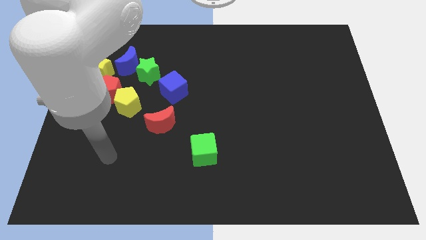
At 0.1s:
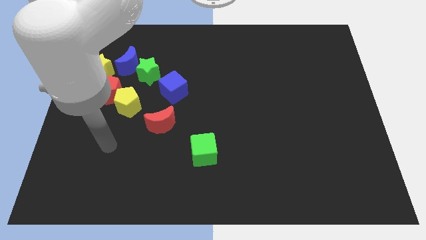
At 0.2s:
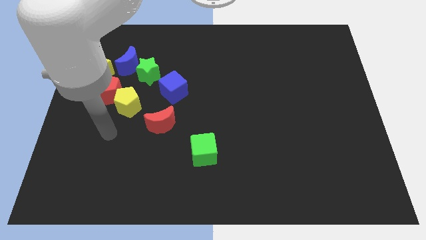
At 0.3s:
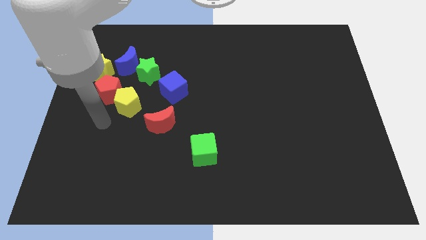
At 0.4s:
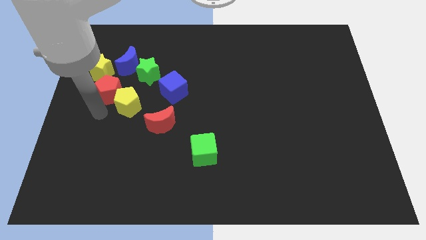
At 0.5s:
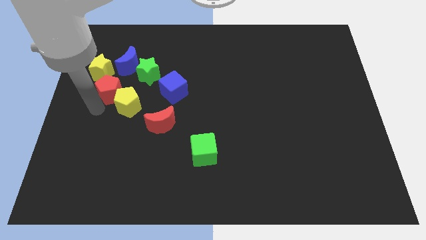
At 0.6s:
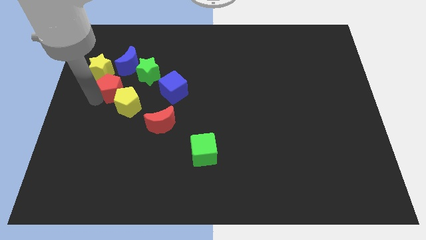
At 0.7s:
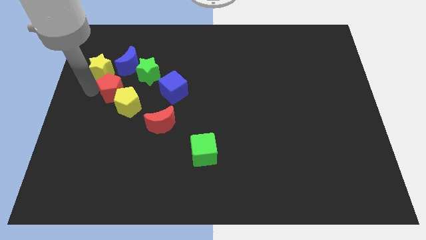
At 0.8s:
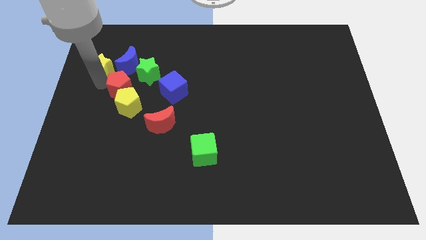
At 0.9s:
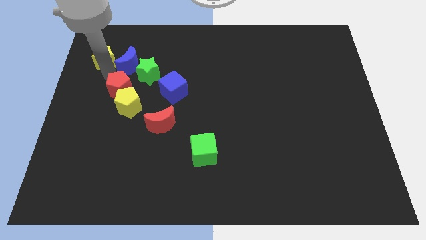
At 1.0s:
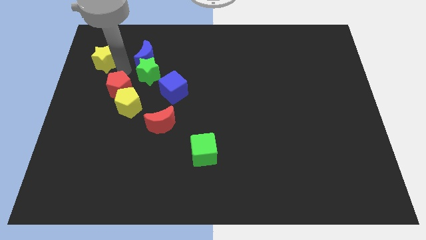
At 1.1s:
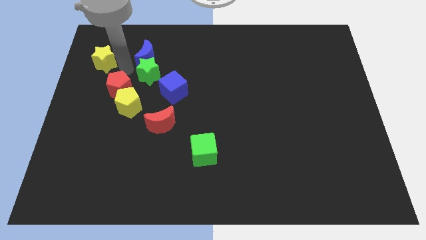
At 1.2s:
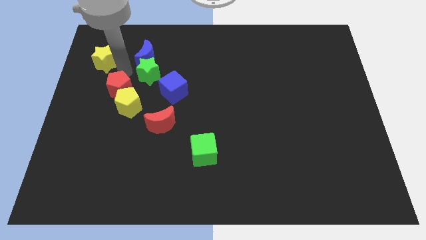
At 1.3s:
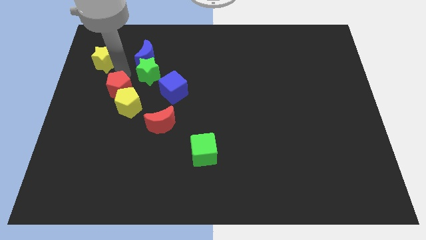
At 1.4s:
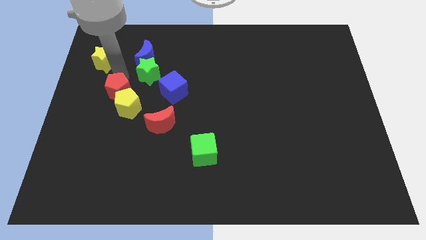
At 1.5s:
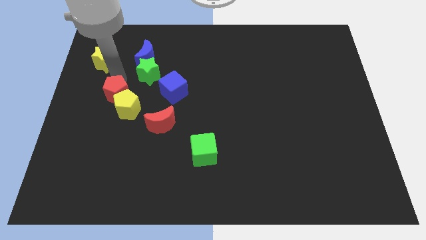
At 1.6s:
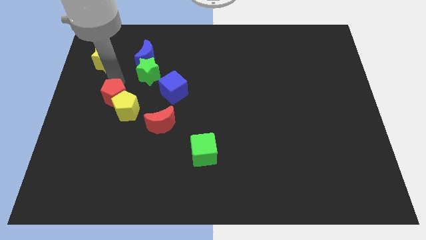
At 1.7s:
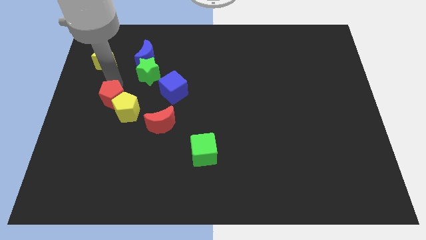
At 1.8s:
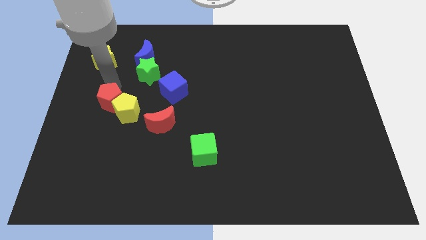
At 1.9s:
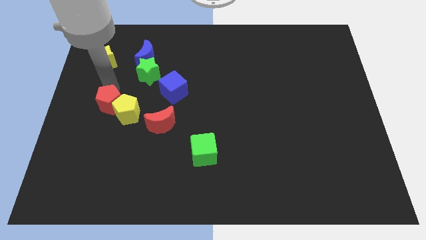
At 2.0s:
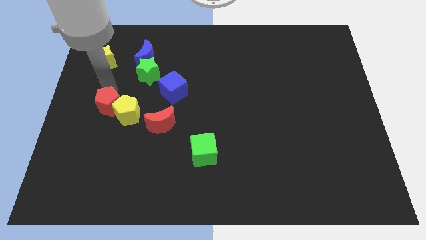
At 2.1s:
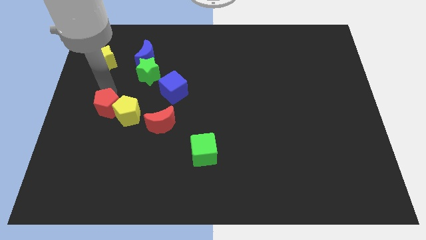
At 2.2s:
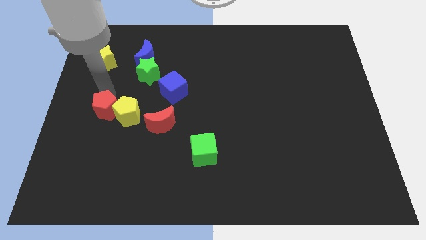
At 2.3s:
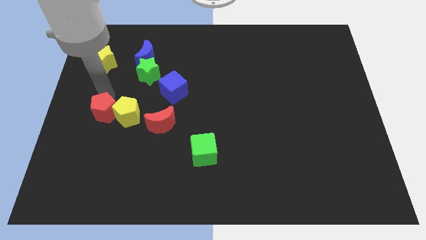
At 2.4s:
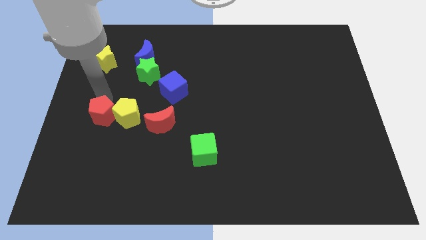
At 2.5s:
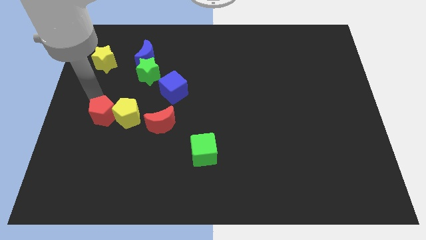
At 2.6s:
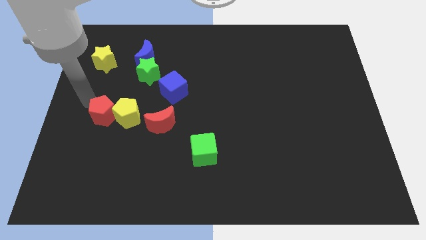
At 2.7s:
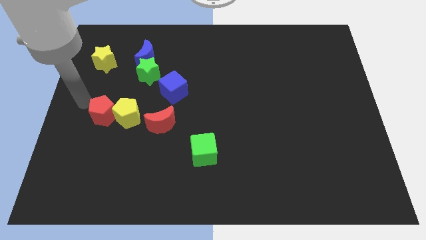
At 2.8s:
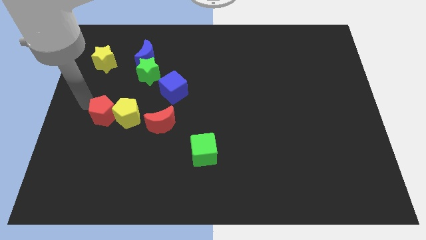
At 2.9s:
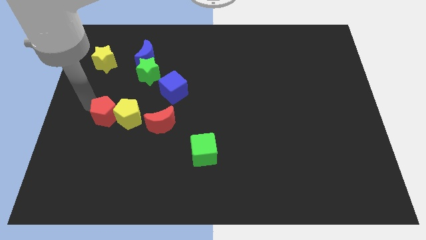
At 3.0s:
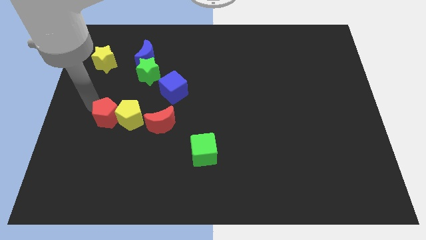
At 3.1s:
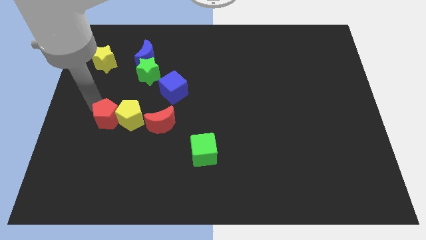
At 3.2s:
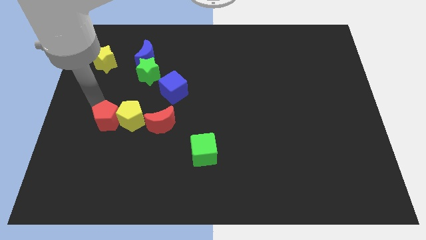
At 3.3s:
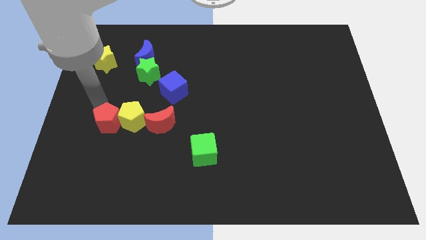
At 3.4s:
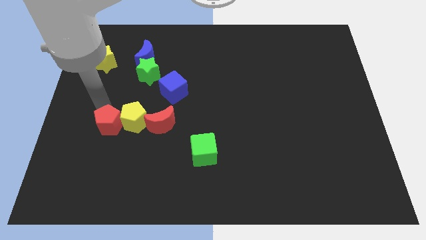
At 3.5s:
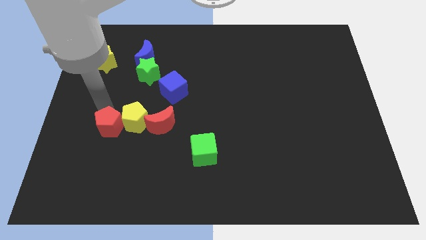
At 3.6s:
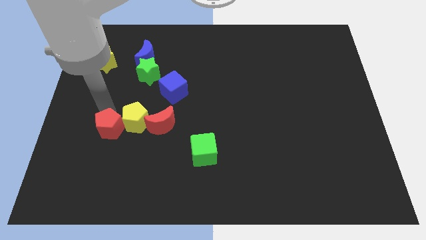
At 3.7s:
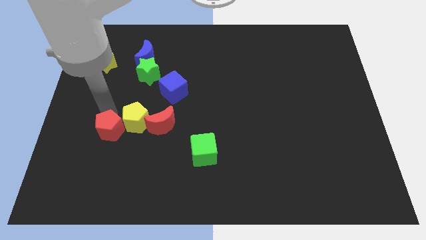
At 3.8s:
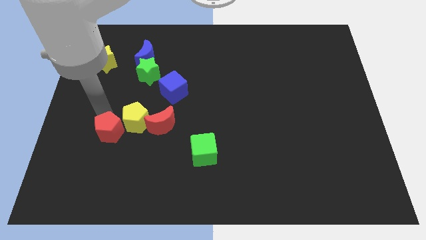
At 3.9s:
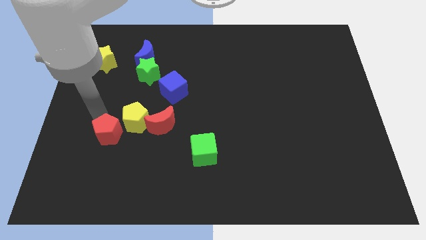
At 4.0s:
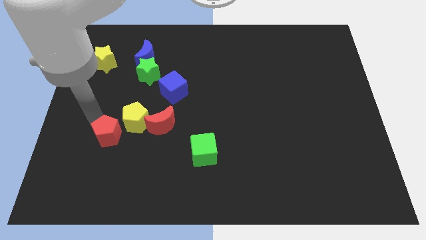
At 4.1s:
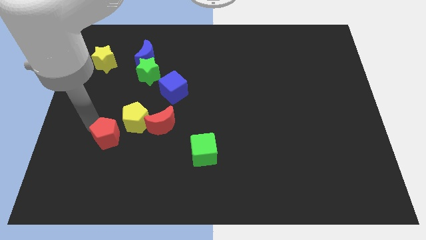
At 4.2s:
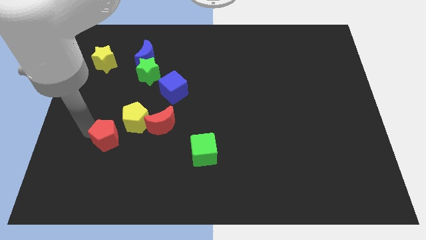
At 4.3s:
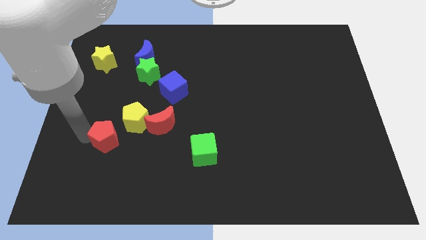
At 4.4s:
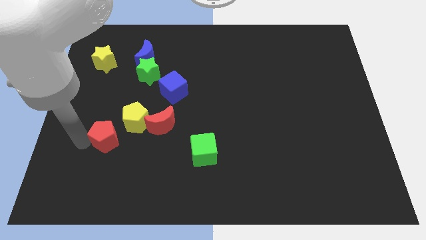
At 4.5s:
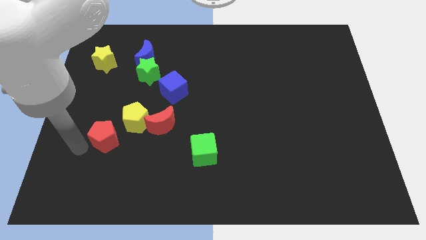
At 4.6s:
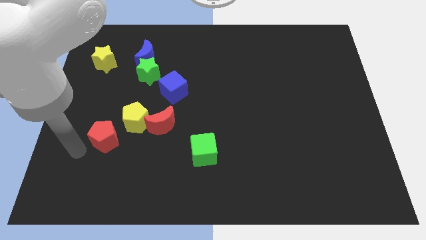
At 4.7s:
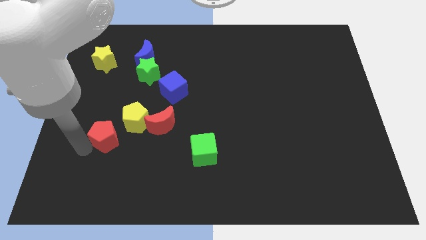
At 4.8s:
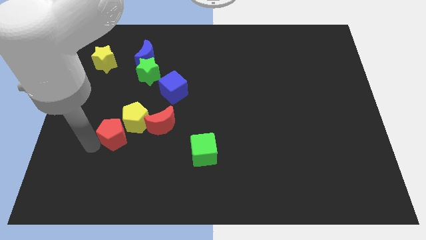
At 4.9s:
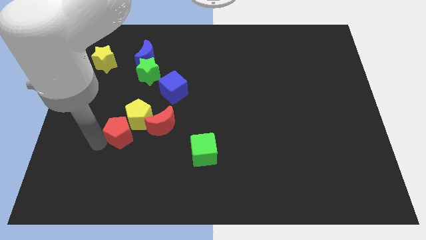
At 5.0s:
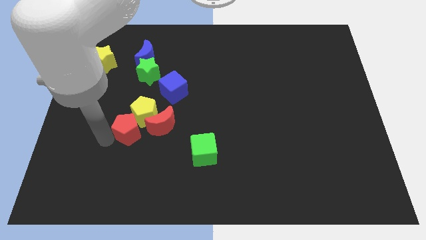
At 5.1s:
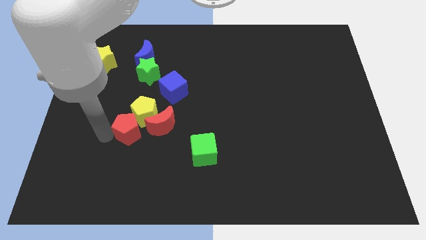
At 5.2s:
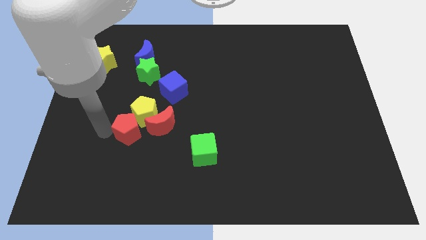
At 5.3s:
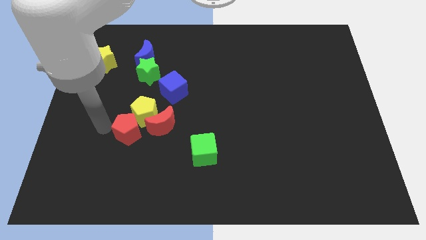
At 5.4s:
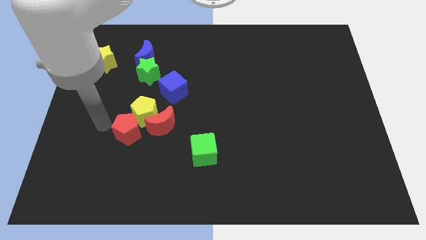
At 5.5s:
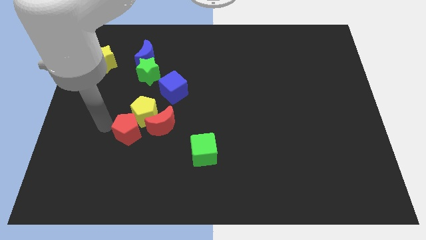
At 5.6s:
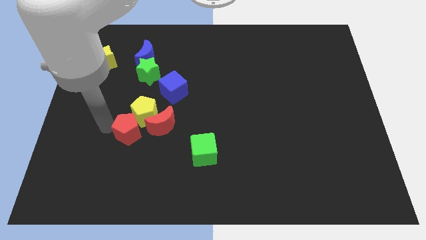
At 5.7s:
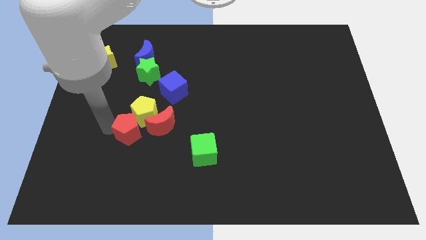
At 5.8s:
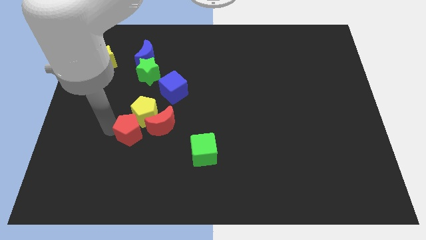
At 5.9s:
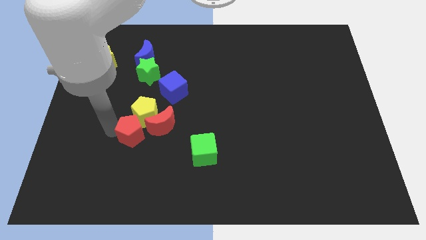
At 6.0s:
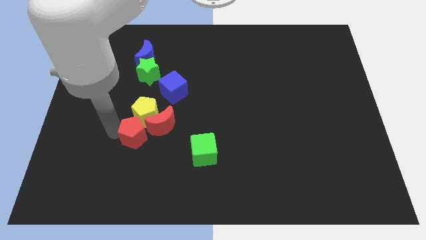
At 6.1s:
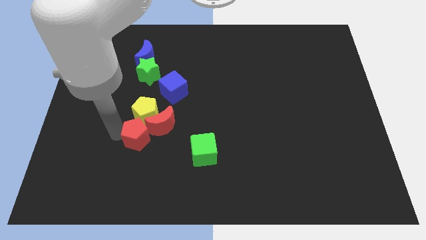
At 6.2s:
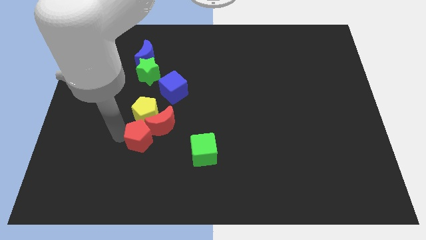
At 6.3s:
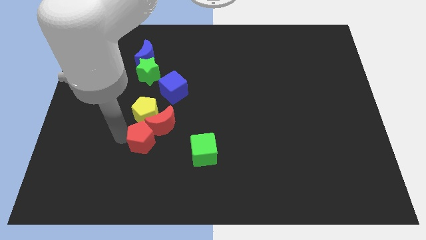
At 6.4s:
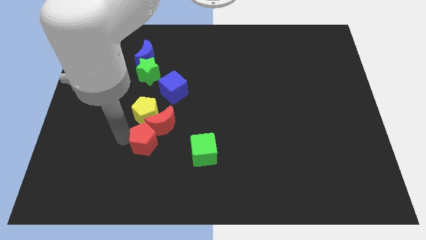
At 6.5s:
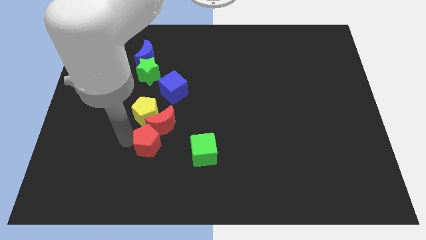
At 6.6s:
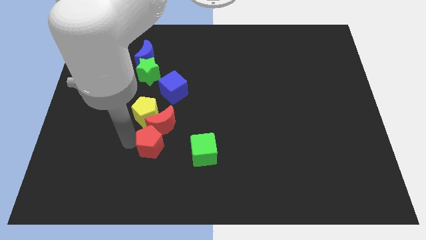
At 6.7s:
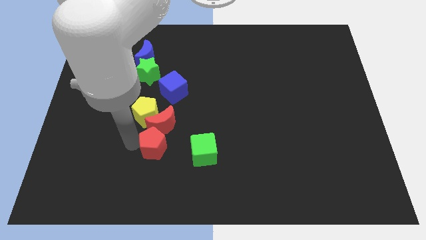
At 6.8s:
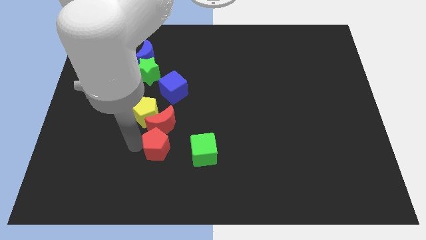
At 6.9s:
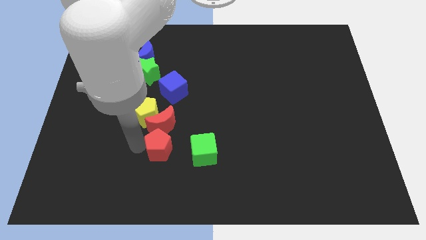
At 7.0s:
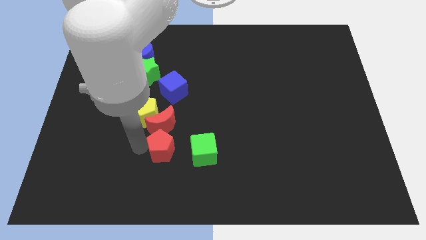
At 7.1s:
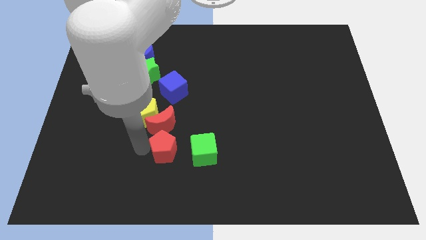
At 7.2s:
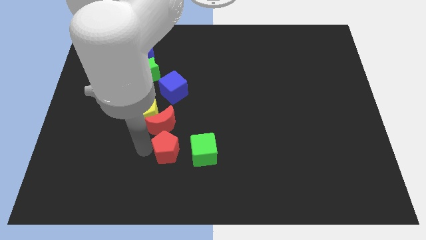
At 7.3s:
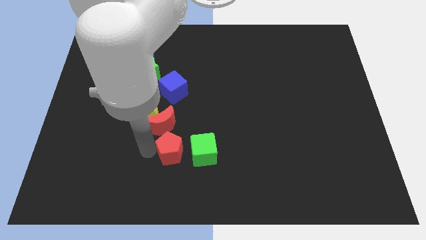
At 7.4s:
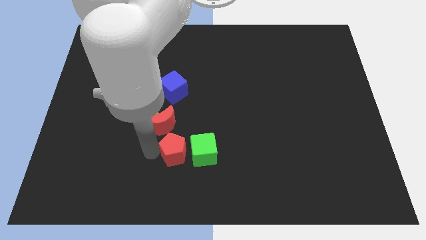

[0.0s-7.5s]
slide the red pentagon towards the green cube

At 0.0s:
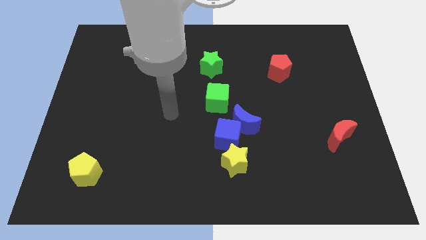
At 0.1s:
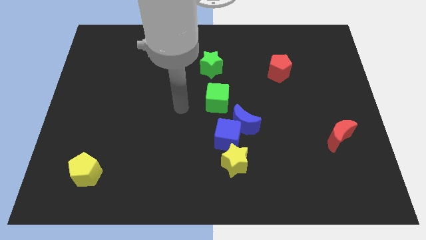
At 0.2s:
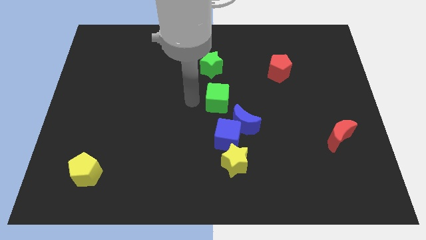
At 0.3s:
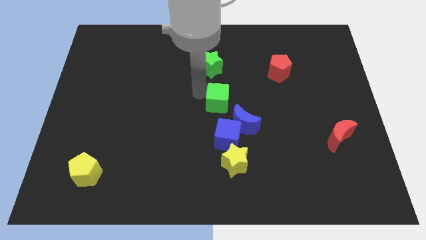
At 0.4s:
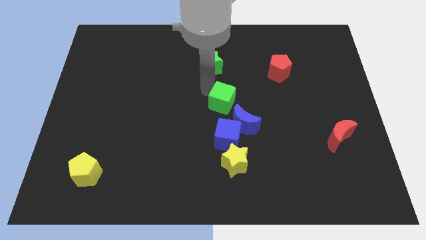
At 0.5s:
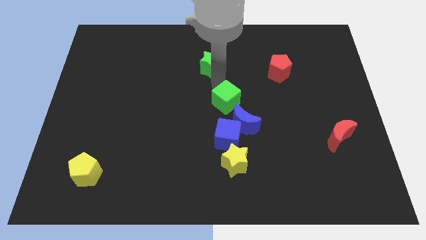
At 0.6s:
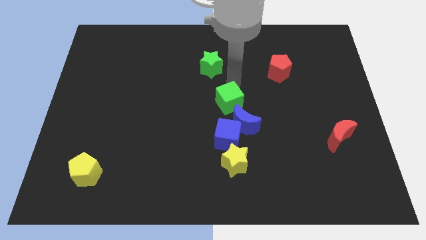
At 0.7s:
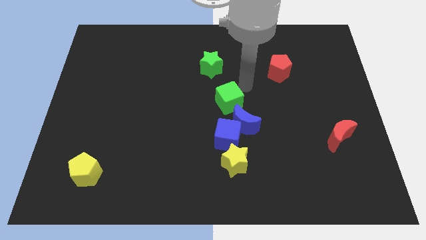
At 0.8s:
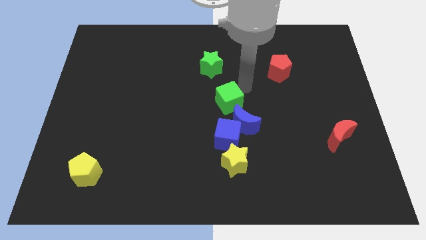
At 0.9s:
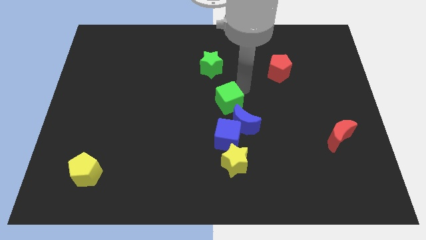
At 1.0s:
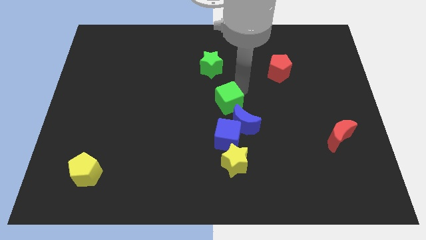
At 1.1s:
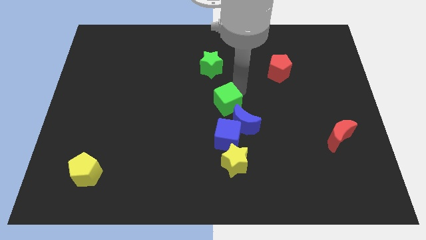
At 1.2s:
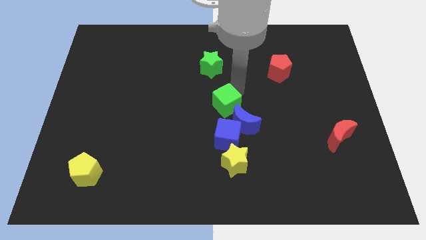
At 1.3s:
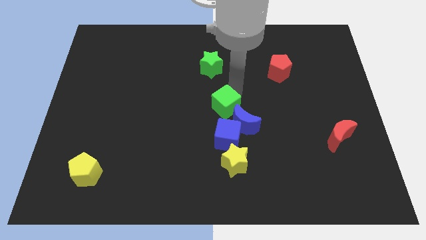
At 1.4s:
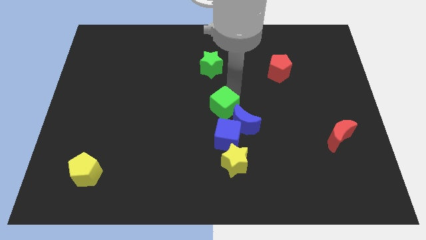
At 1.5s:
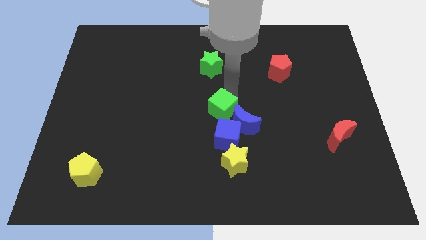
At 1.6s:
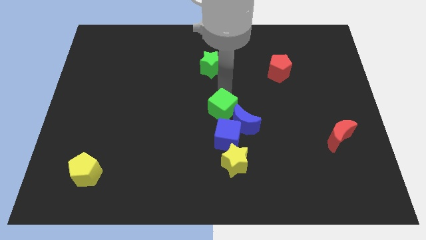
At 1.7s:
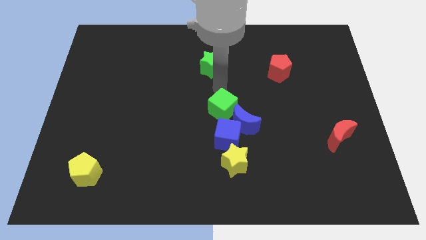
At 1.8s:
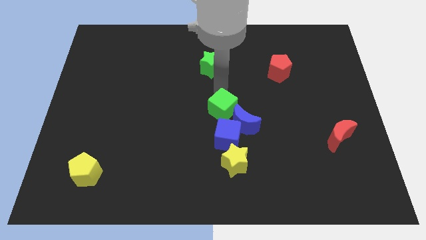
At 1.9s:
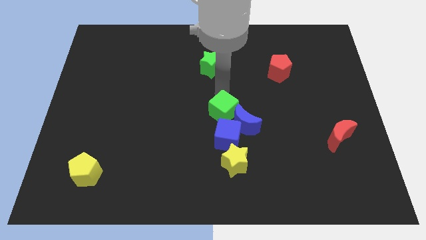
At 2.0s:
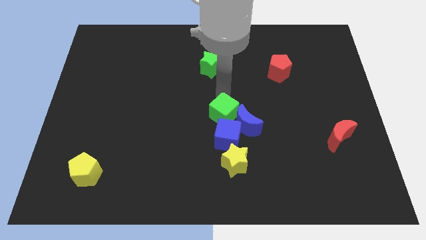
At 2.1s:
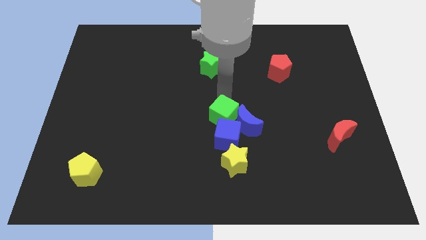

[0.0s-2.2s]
slide the green cube towards the blue cube
